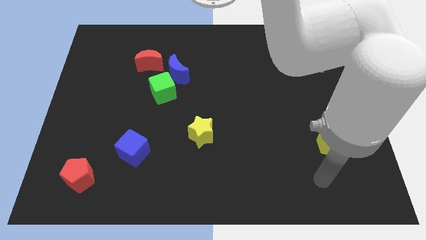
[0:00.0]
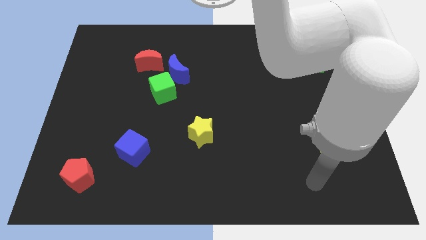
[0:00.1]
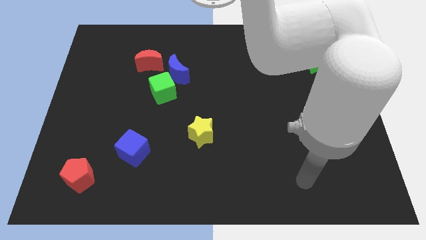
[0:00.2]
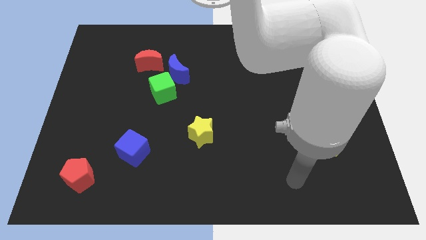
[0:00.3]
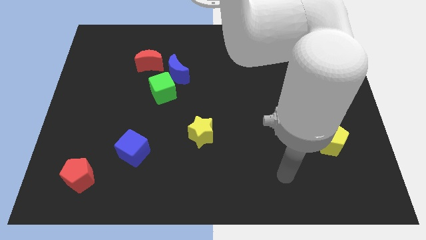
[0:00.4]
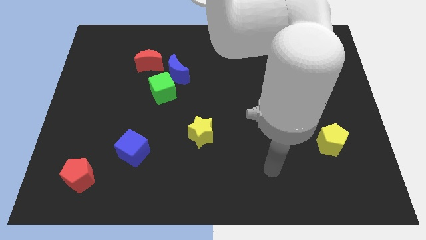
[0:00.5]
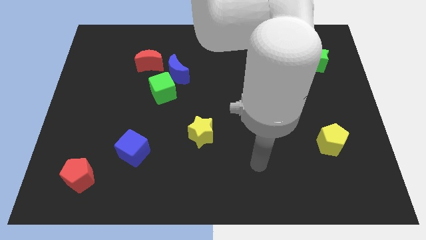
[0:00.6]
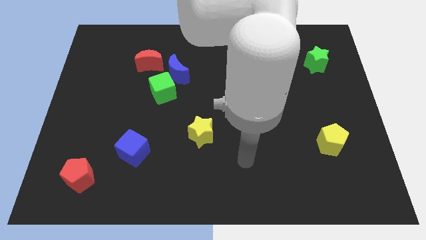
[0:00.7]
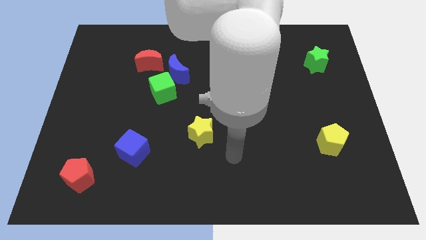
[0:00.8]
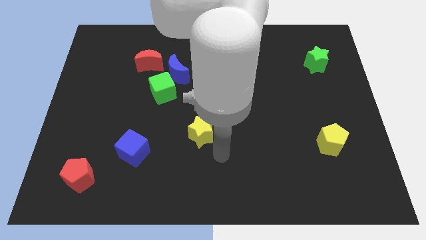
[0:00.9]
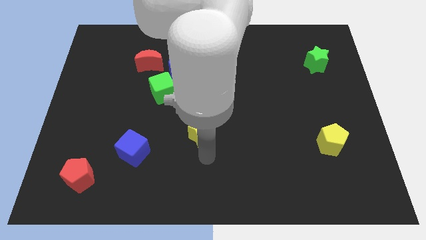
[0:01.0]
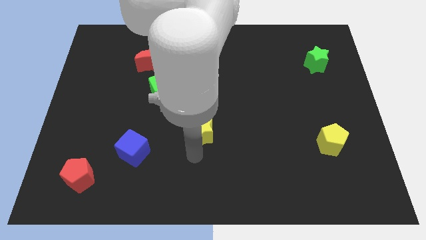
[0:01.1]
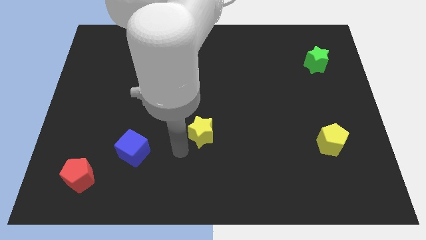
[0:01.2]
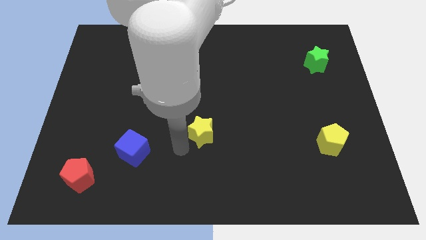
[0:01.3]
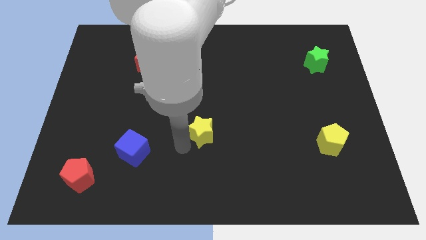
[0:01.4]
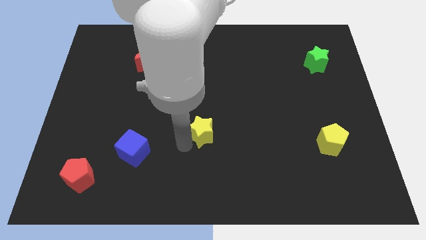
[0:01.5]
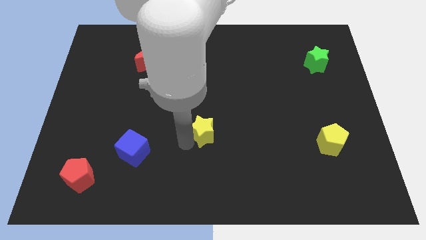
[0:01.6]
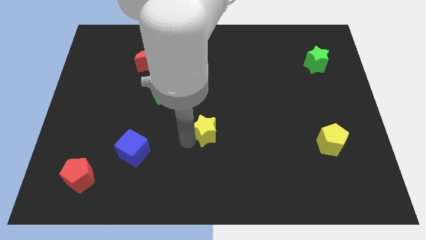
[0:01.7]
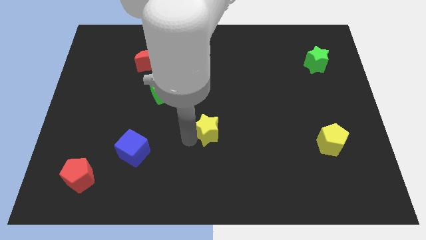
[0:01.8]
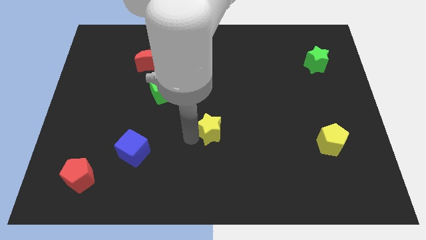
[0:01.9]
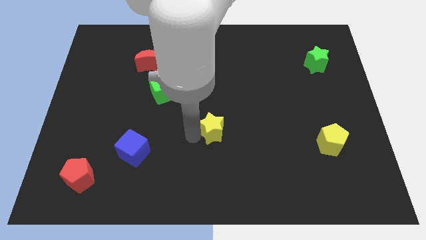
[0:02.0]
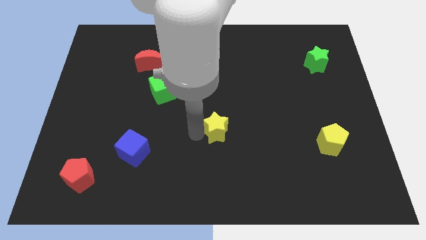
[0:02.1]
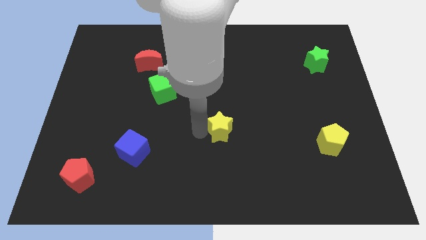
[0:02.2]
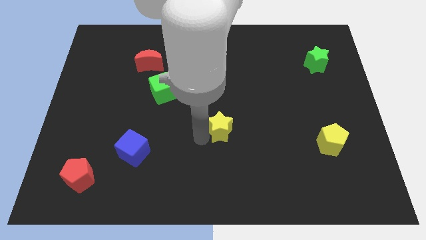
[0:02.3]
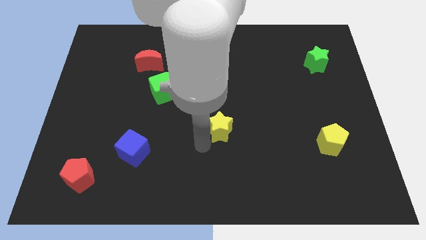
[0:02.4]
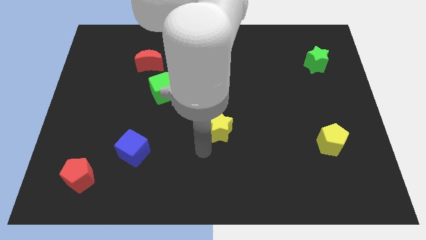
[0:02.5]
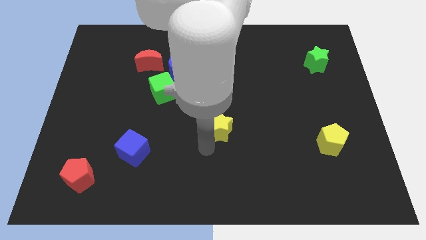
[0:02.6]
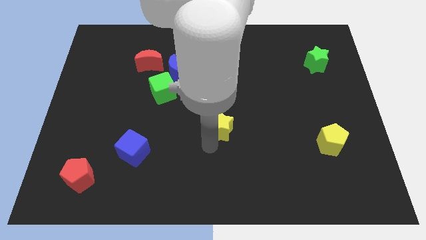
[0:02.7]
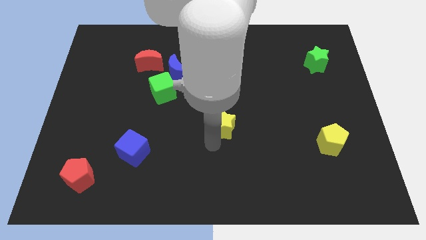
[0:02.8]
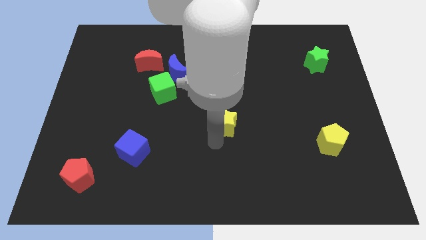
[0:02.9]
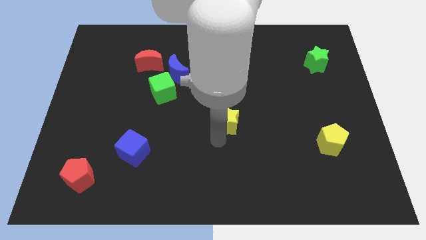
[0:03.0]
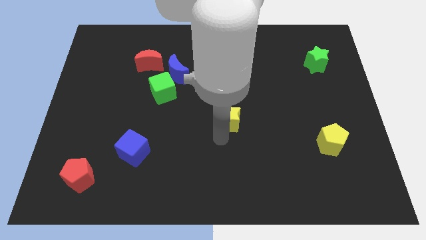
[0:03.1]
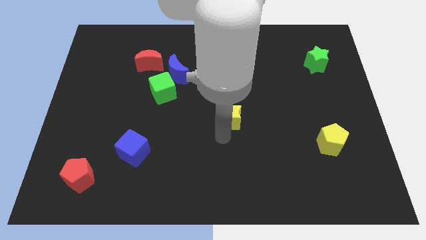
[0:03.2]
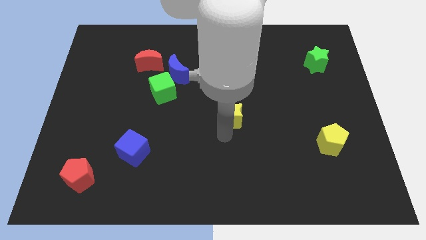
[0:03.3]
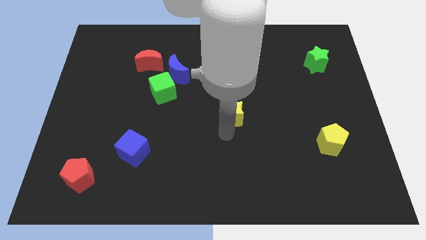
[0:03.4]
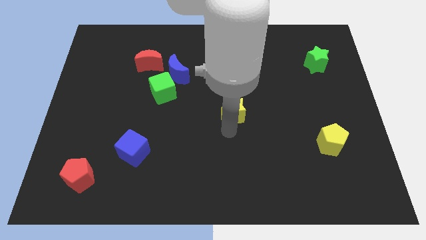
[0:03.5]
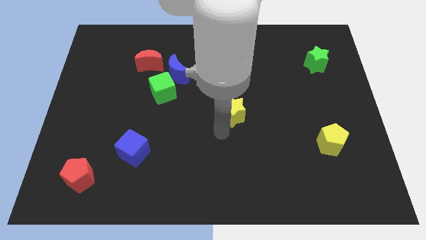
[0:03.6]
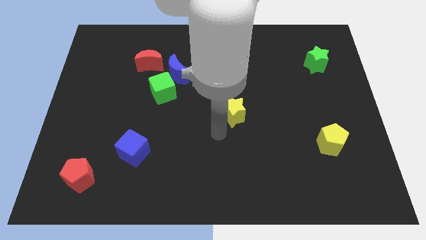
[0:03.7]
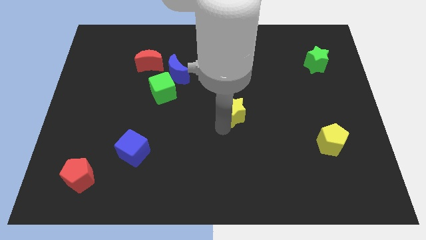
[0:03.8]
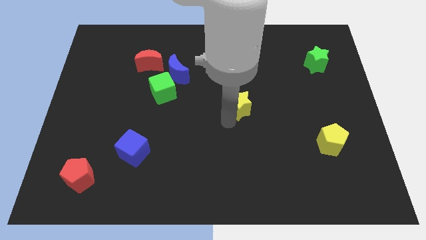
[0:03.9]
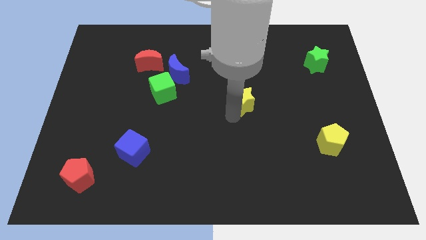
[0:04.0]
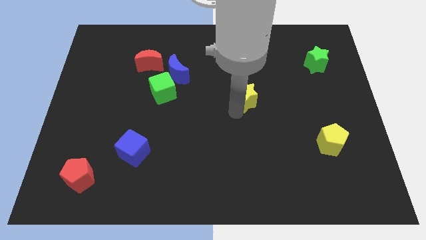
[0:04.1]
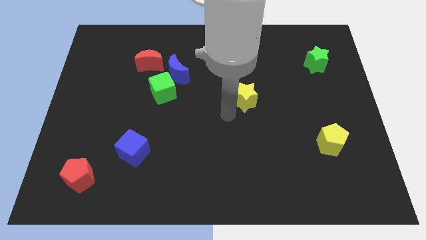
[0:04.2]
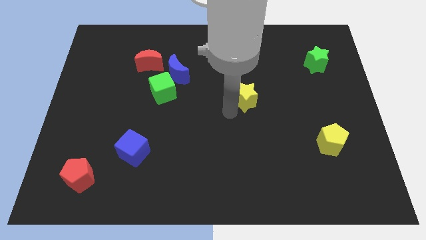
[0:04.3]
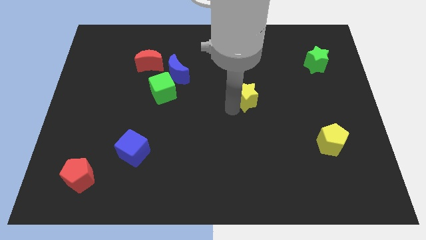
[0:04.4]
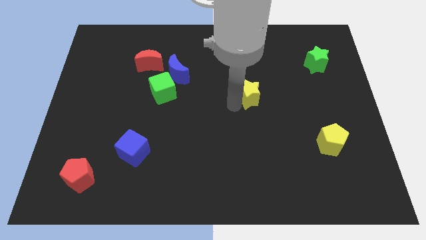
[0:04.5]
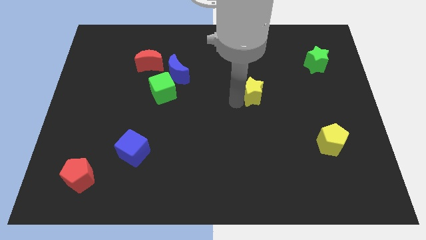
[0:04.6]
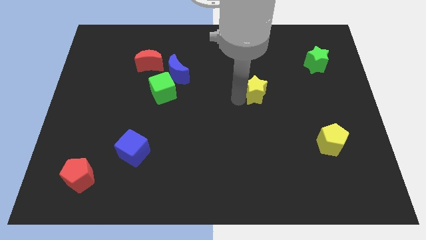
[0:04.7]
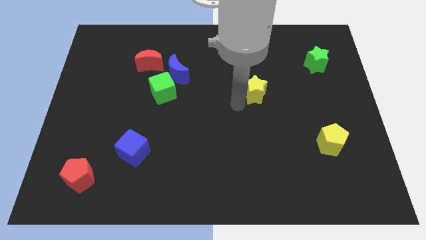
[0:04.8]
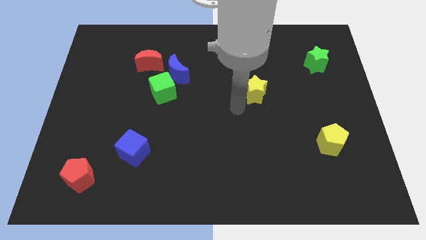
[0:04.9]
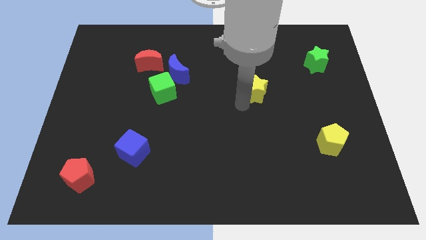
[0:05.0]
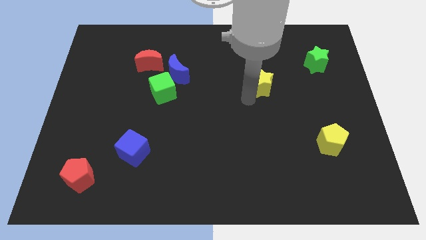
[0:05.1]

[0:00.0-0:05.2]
move the yellow star upwards and to the right

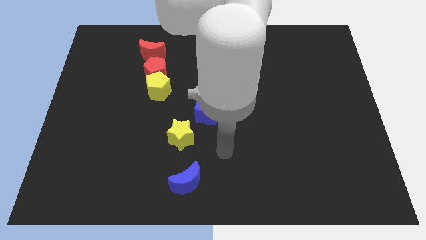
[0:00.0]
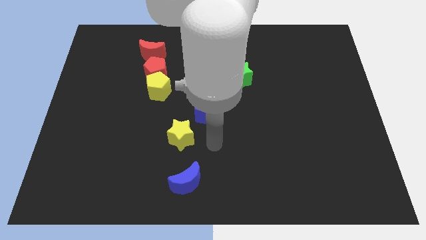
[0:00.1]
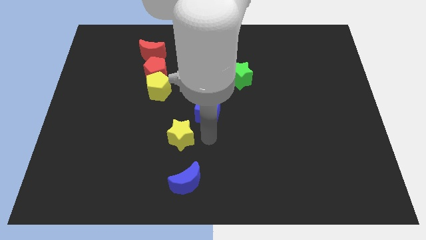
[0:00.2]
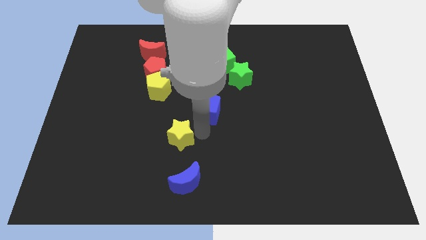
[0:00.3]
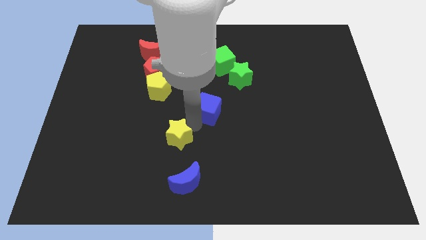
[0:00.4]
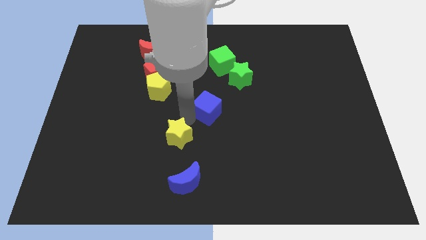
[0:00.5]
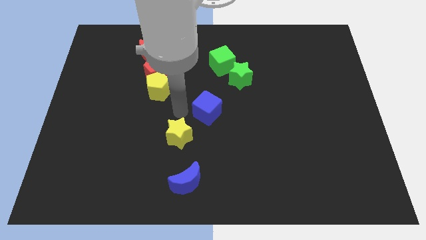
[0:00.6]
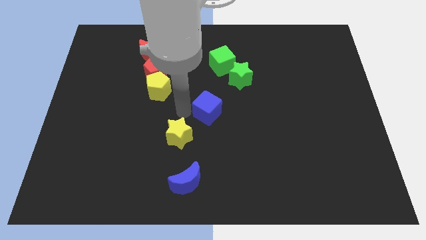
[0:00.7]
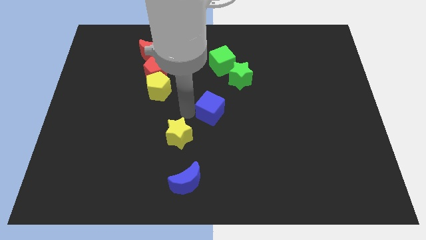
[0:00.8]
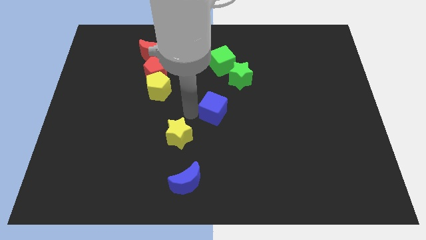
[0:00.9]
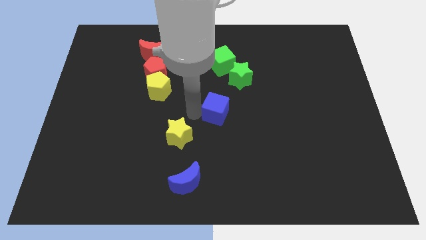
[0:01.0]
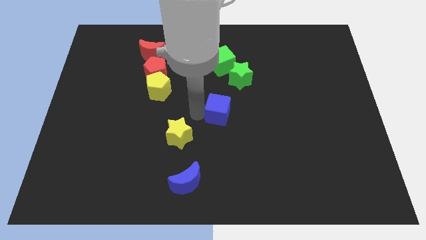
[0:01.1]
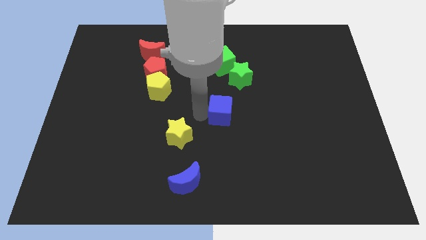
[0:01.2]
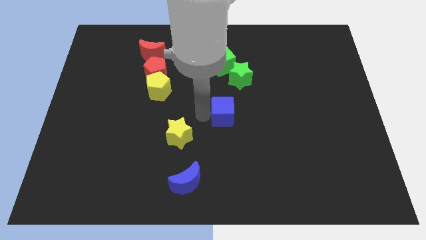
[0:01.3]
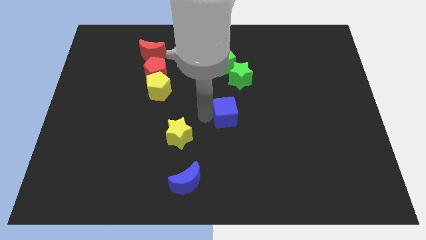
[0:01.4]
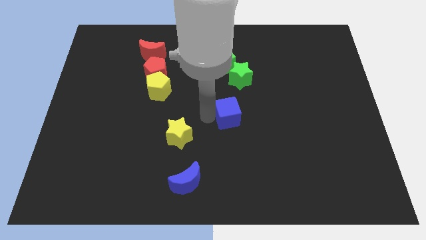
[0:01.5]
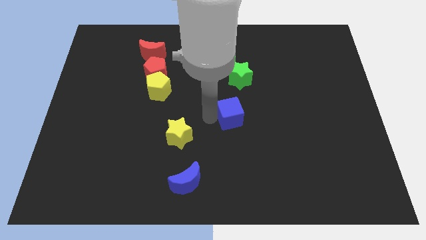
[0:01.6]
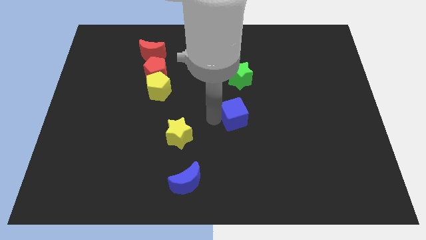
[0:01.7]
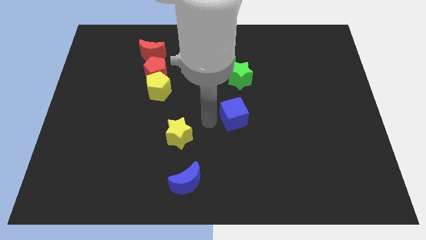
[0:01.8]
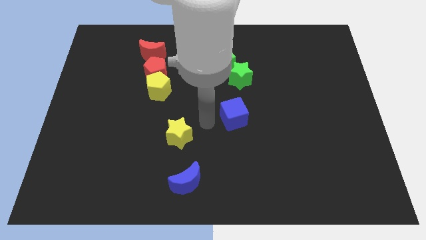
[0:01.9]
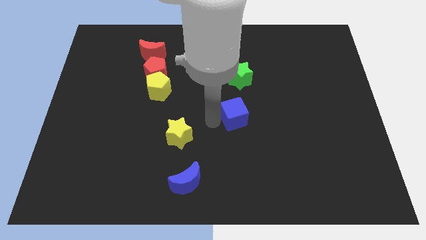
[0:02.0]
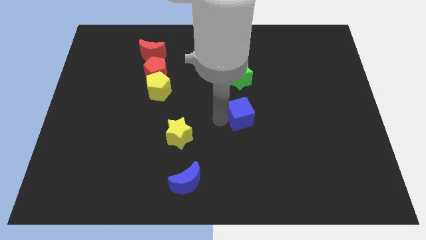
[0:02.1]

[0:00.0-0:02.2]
move the blue cube to the right a little bit

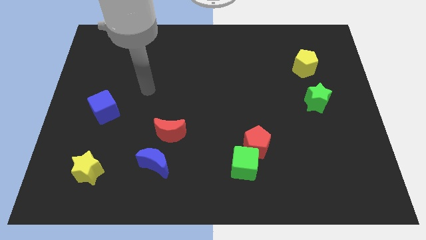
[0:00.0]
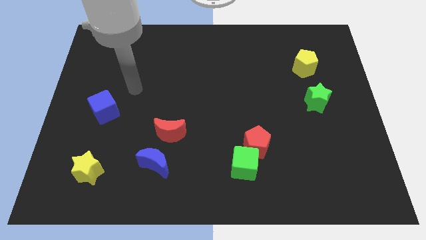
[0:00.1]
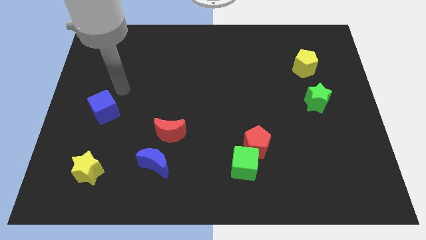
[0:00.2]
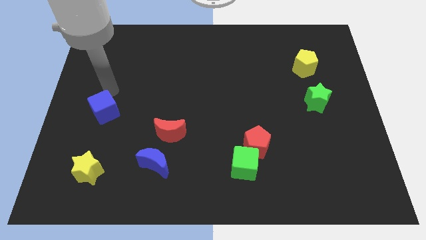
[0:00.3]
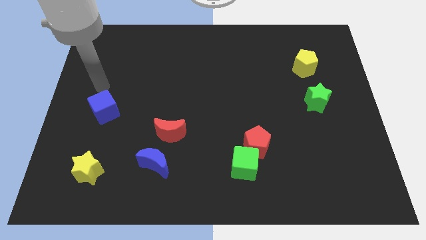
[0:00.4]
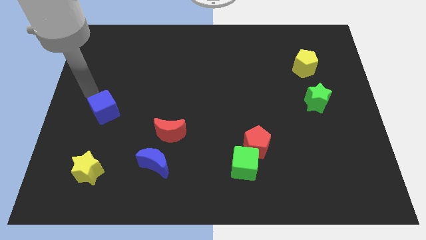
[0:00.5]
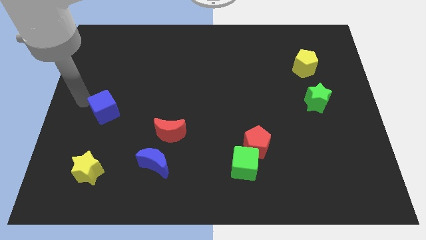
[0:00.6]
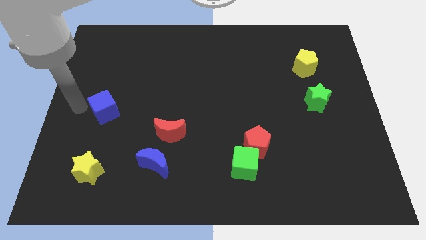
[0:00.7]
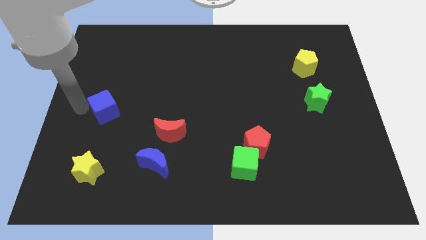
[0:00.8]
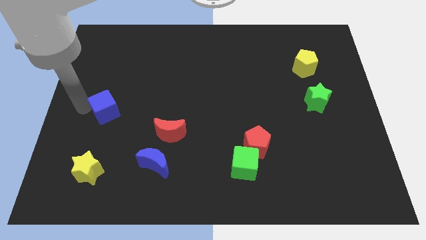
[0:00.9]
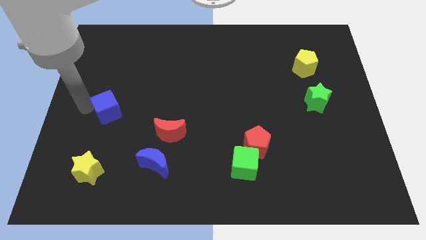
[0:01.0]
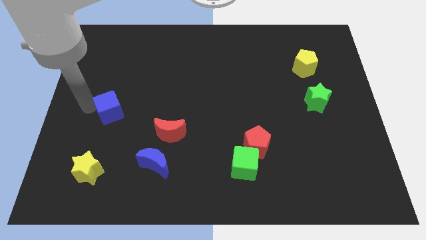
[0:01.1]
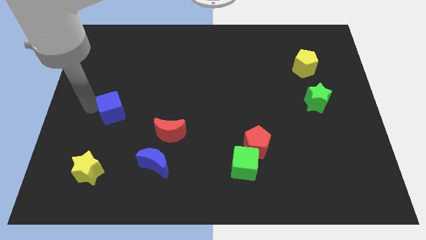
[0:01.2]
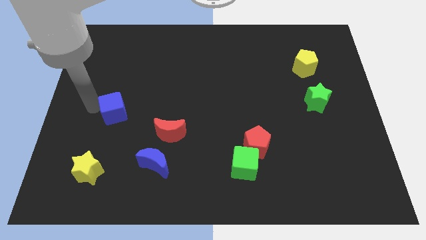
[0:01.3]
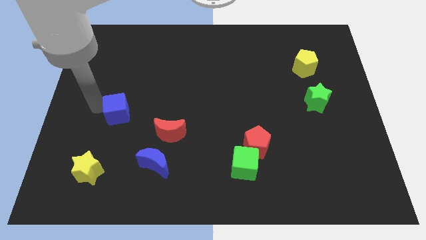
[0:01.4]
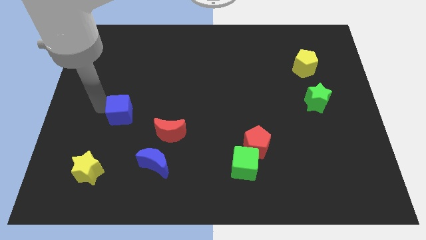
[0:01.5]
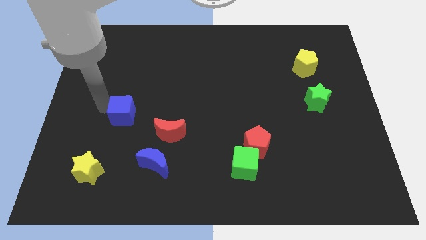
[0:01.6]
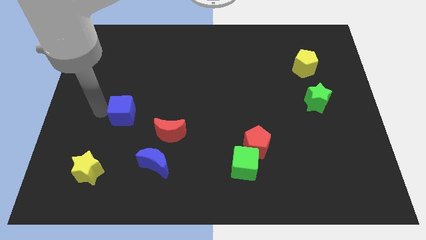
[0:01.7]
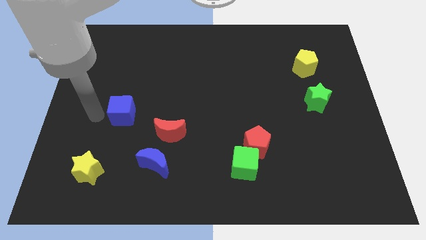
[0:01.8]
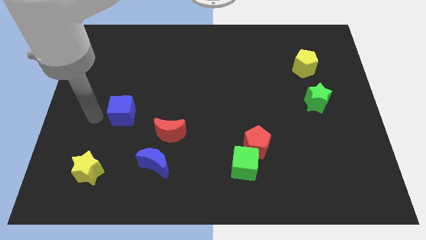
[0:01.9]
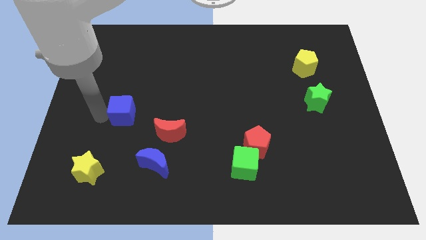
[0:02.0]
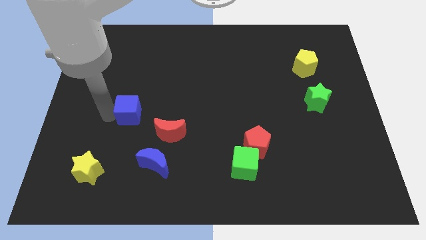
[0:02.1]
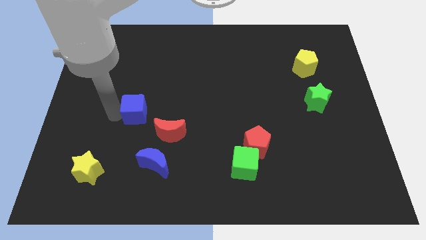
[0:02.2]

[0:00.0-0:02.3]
slightly move the blue cube to the right
